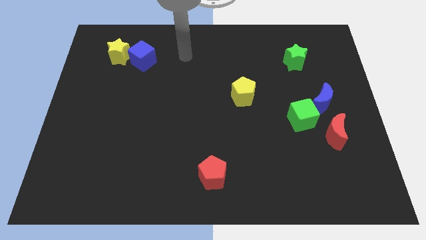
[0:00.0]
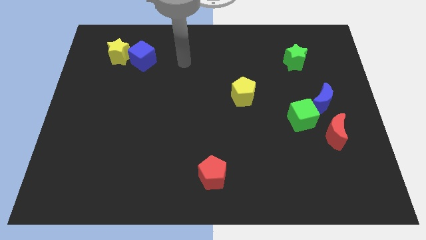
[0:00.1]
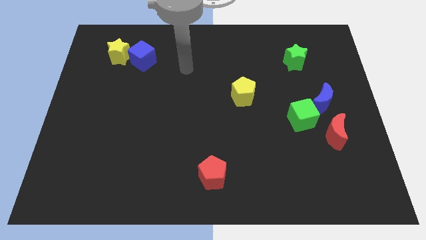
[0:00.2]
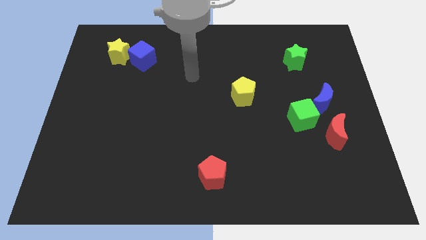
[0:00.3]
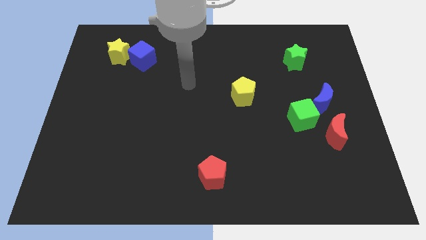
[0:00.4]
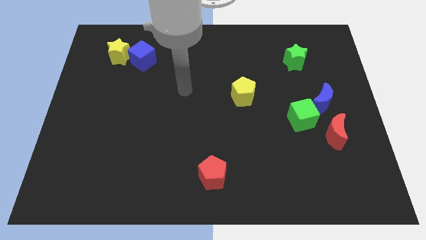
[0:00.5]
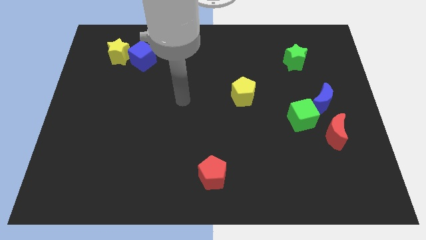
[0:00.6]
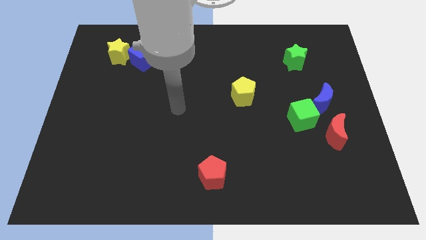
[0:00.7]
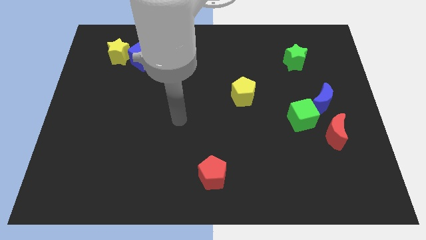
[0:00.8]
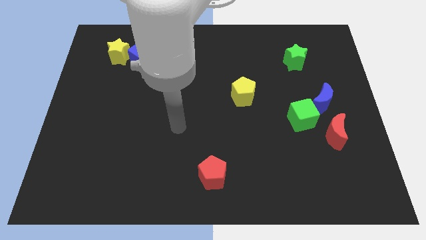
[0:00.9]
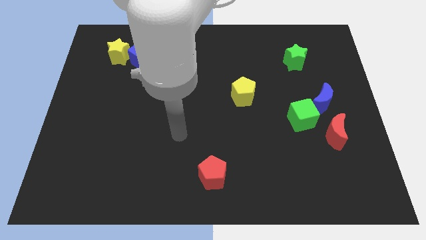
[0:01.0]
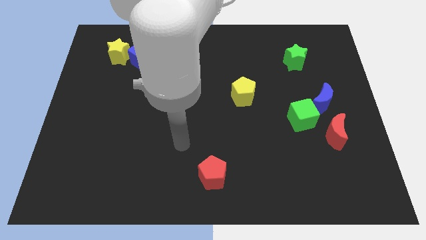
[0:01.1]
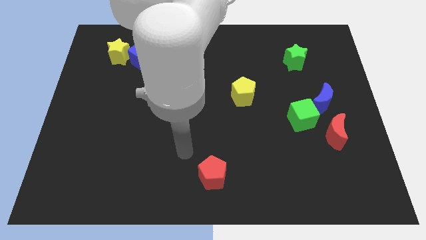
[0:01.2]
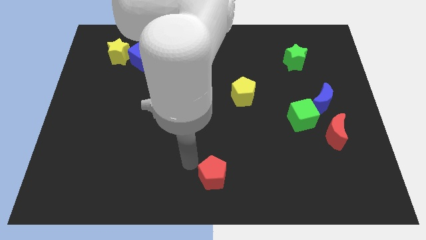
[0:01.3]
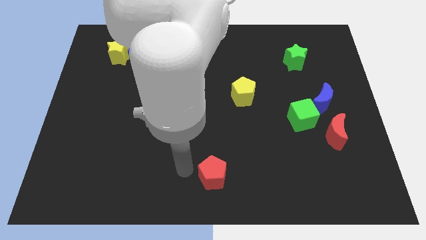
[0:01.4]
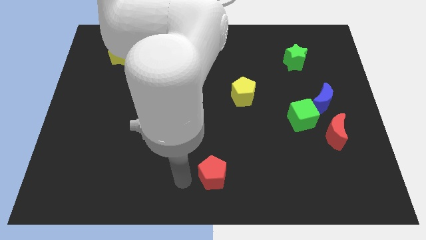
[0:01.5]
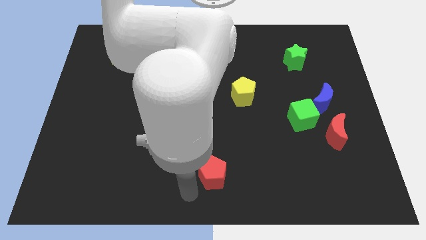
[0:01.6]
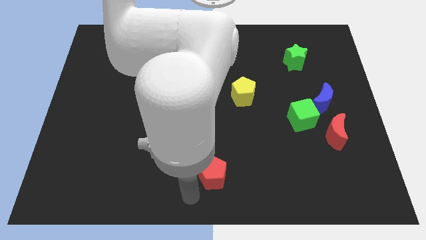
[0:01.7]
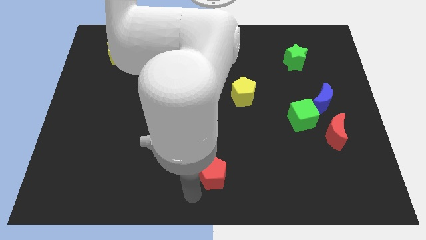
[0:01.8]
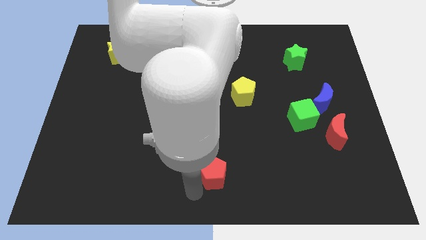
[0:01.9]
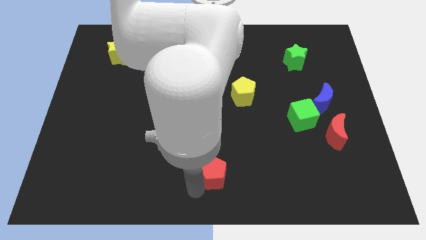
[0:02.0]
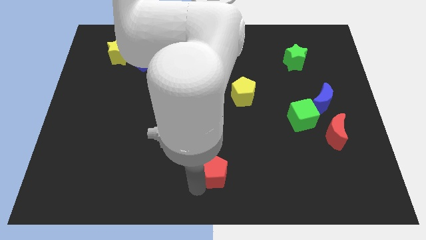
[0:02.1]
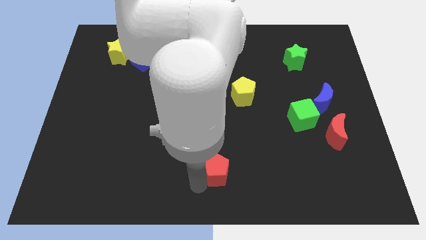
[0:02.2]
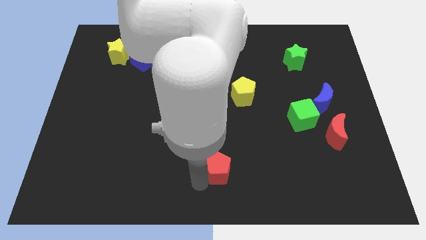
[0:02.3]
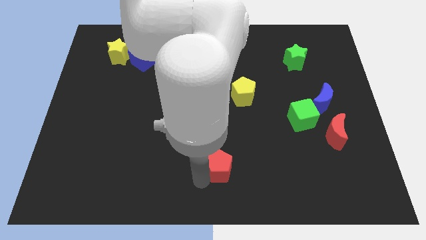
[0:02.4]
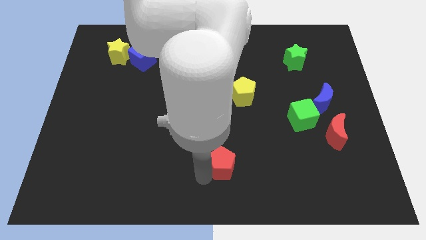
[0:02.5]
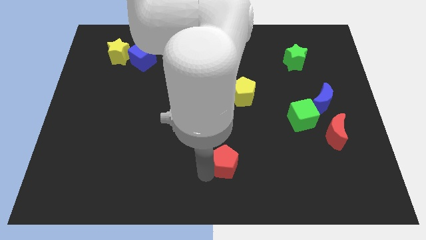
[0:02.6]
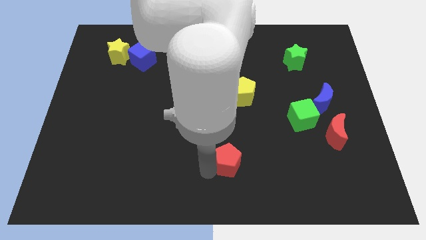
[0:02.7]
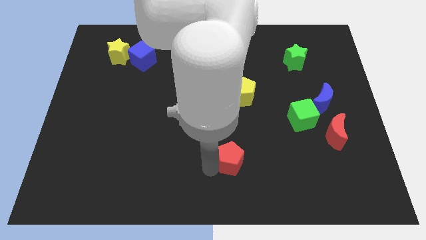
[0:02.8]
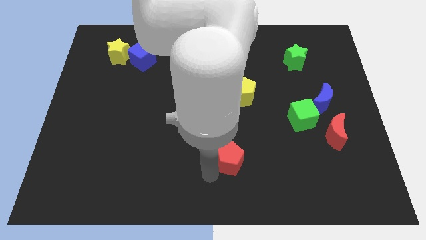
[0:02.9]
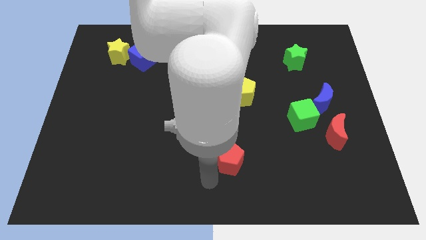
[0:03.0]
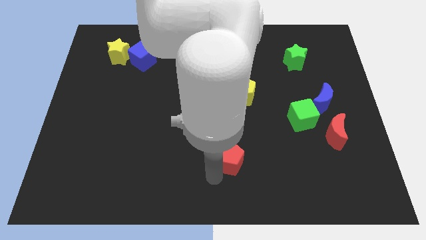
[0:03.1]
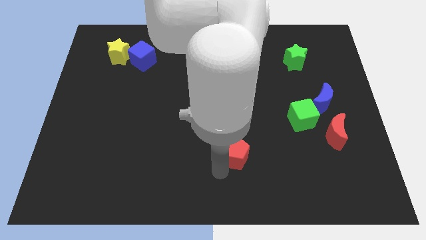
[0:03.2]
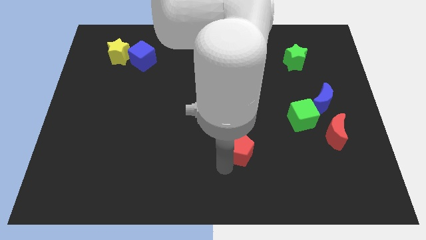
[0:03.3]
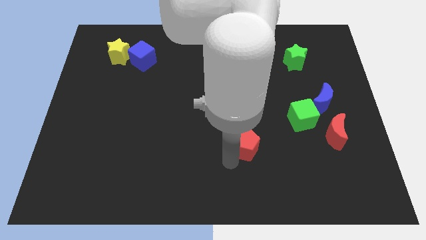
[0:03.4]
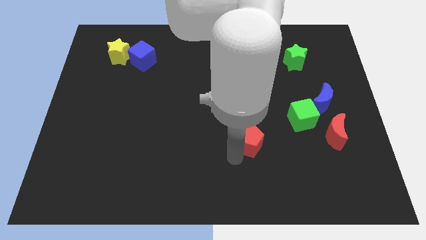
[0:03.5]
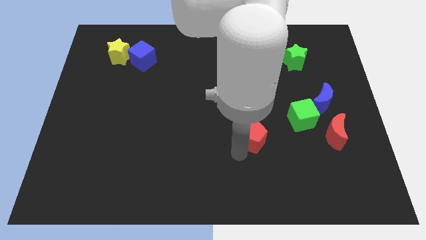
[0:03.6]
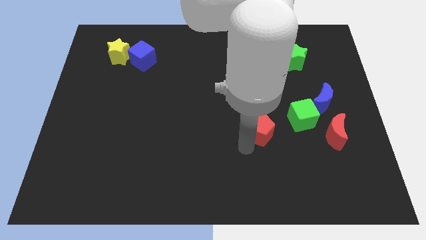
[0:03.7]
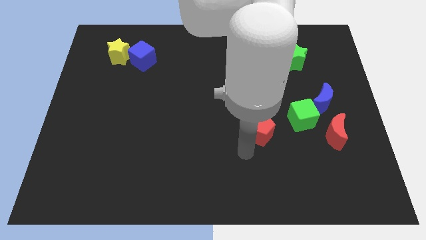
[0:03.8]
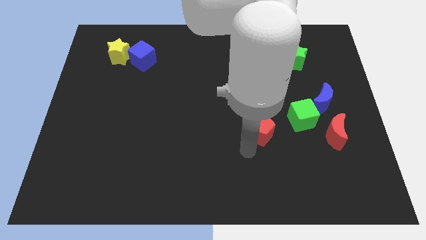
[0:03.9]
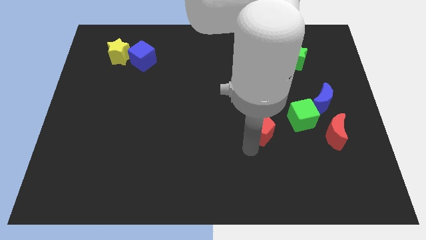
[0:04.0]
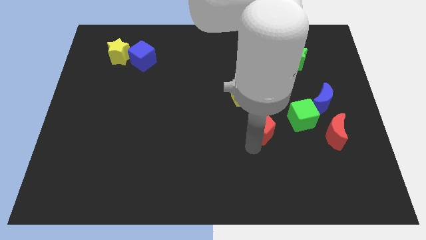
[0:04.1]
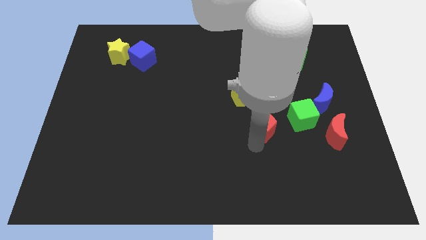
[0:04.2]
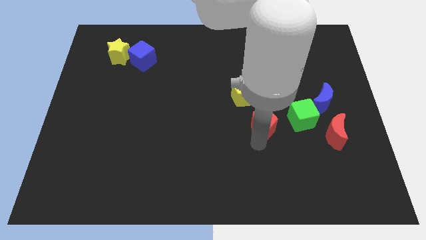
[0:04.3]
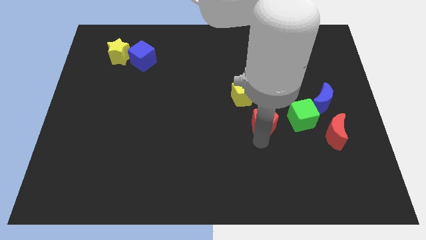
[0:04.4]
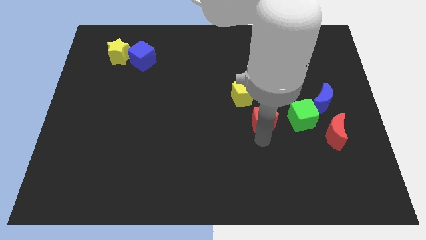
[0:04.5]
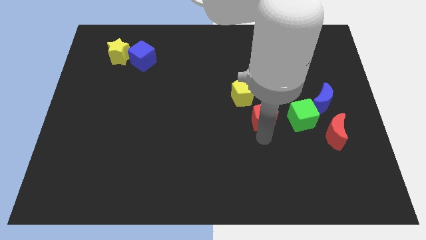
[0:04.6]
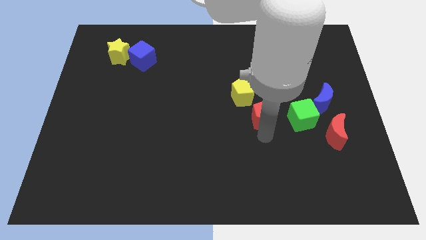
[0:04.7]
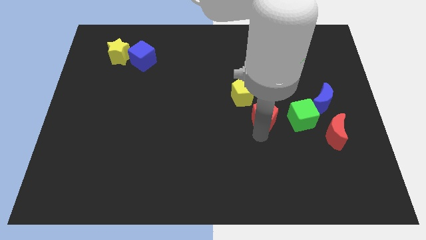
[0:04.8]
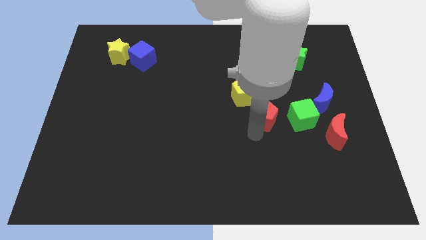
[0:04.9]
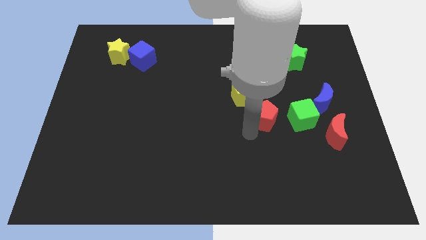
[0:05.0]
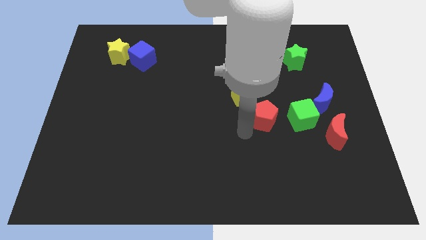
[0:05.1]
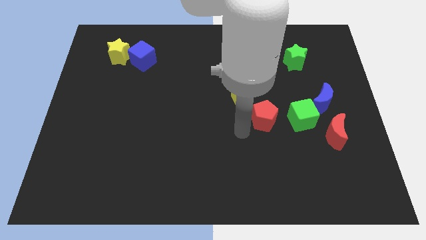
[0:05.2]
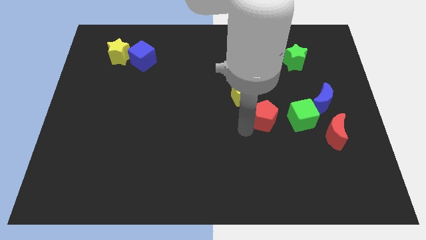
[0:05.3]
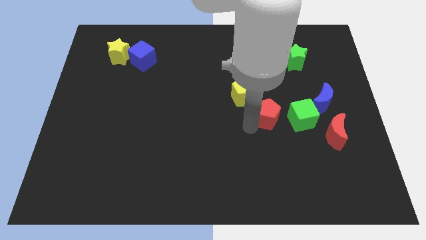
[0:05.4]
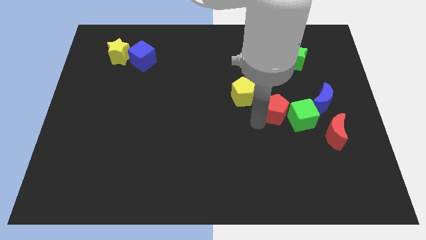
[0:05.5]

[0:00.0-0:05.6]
slide the red pentagon up and then to the right

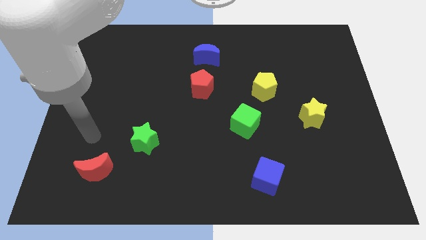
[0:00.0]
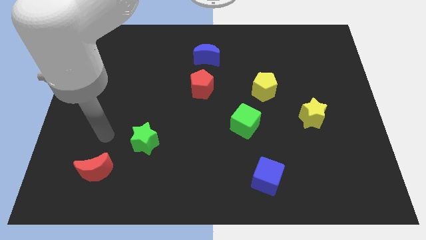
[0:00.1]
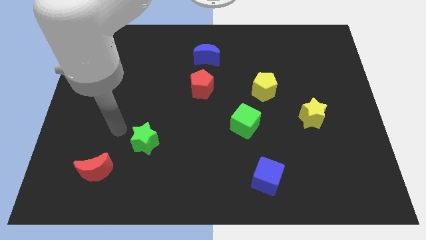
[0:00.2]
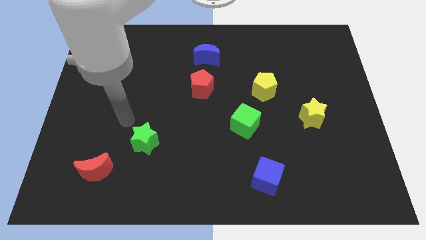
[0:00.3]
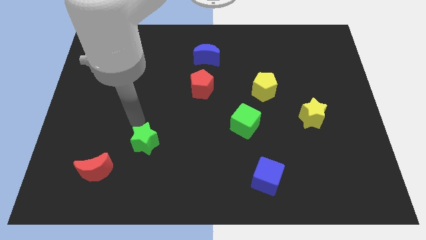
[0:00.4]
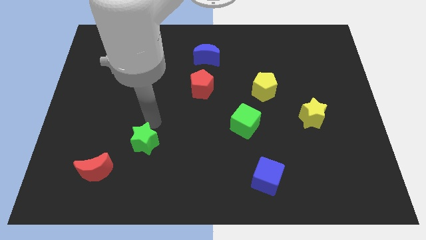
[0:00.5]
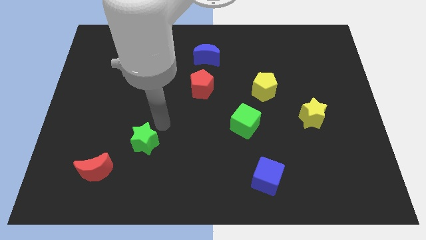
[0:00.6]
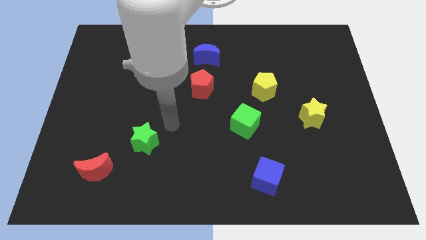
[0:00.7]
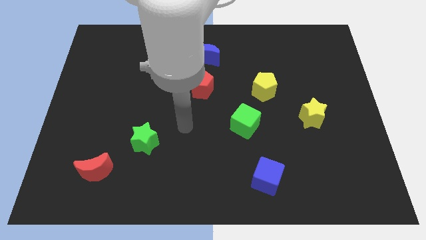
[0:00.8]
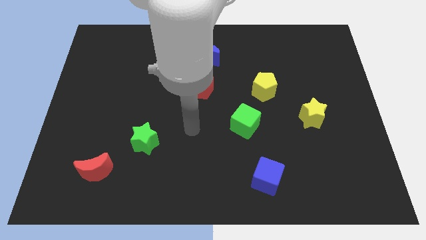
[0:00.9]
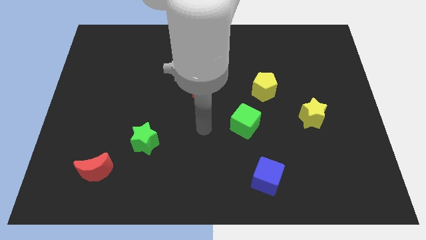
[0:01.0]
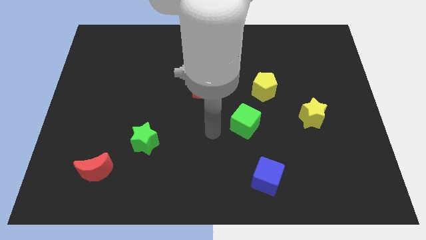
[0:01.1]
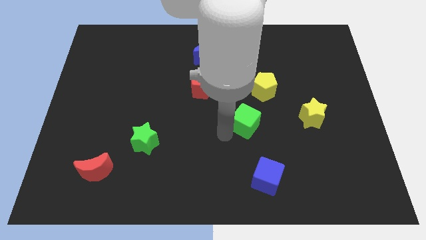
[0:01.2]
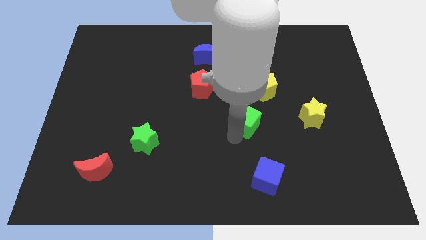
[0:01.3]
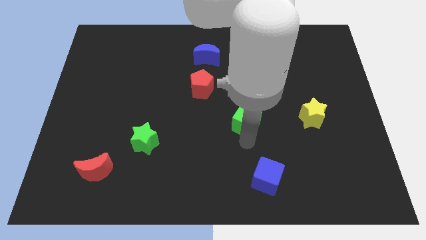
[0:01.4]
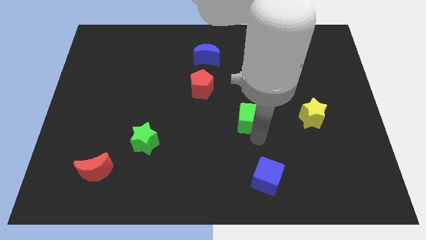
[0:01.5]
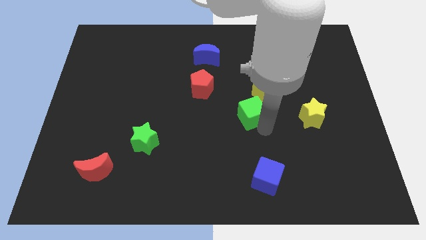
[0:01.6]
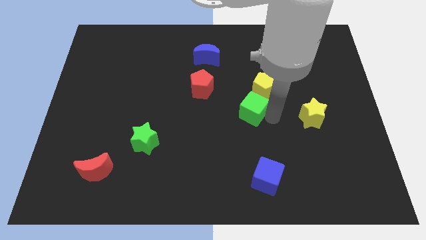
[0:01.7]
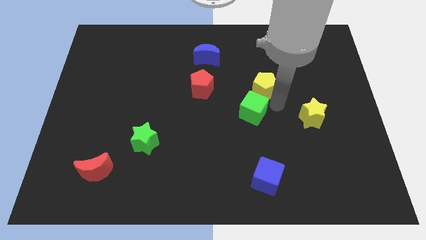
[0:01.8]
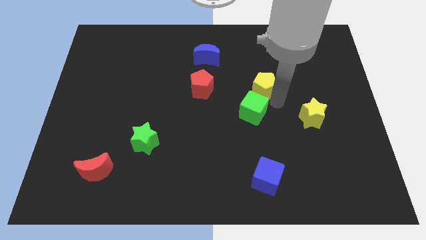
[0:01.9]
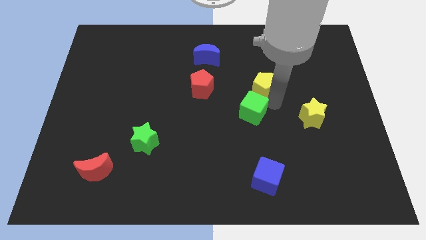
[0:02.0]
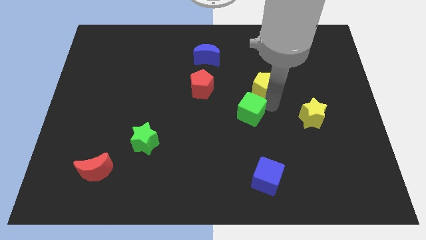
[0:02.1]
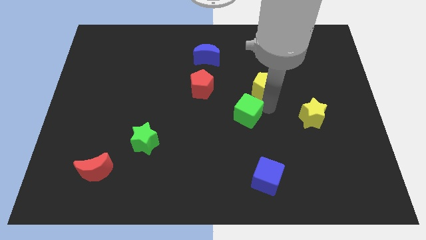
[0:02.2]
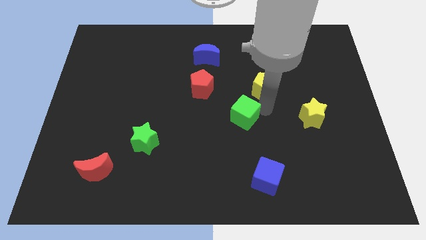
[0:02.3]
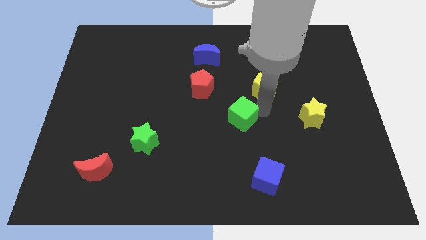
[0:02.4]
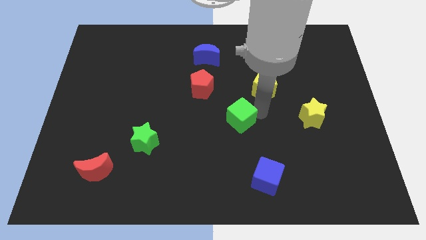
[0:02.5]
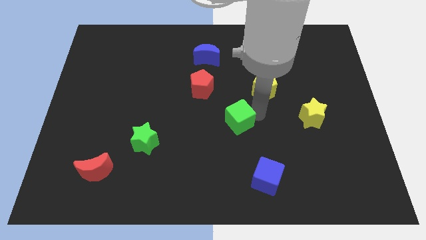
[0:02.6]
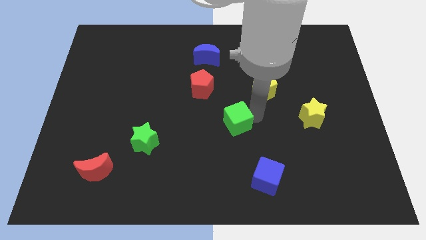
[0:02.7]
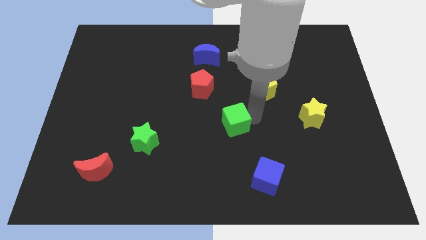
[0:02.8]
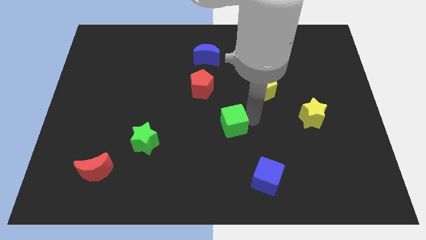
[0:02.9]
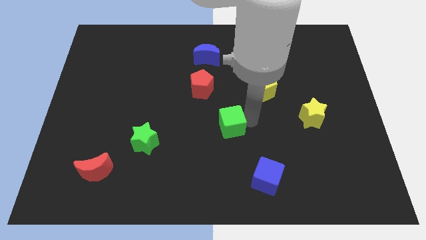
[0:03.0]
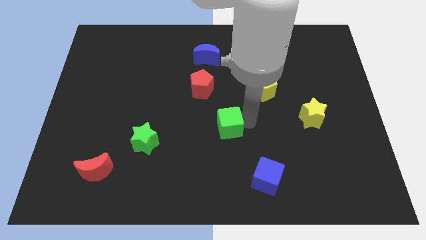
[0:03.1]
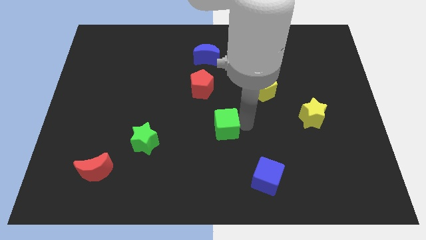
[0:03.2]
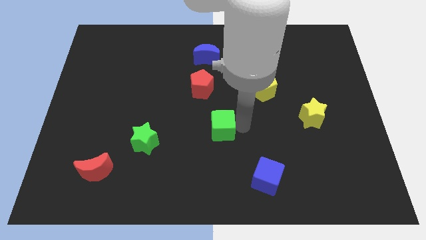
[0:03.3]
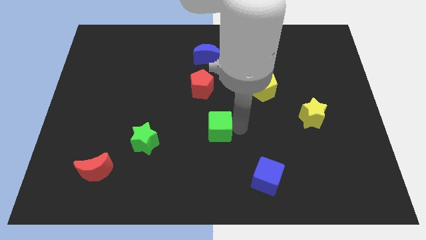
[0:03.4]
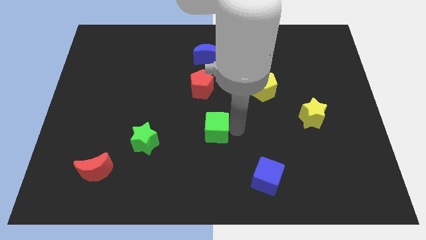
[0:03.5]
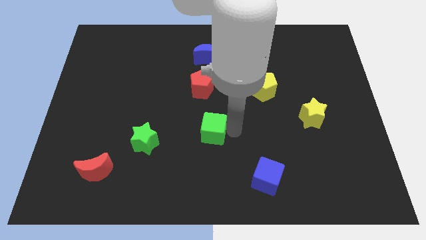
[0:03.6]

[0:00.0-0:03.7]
slide the green cube left a little
